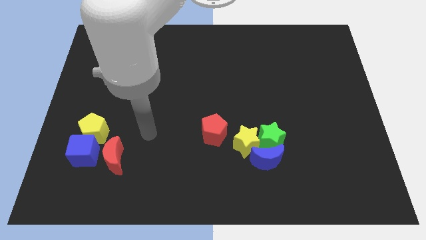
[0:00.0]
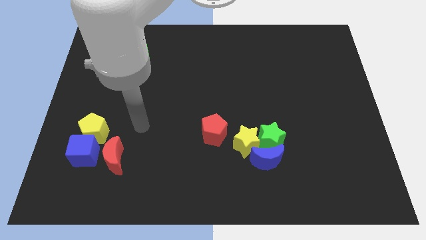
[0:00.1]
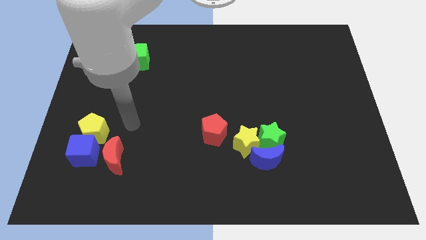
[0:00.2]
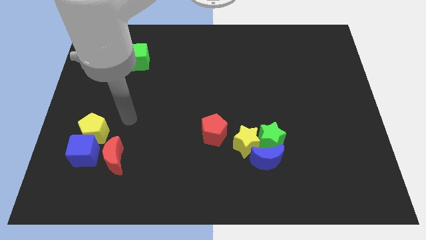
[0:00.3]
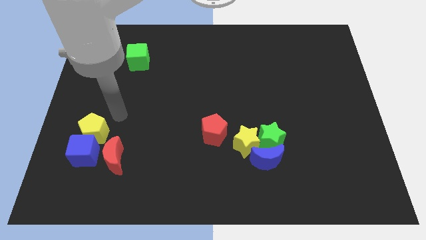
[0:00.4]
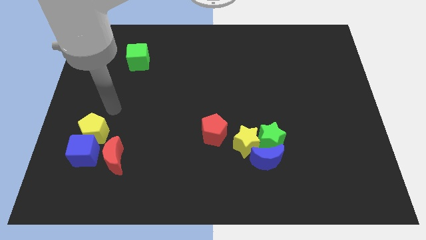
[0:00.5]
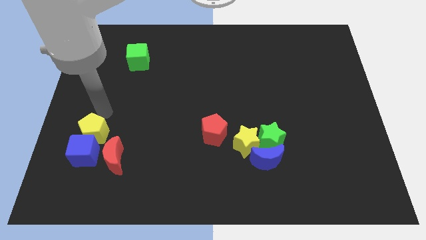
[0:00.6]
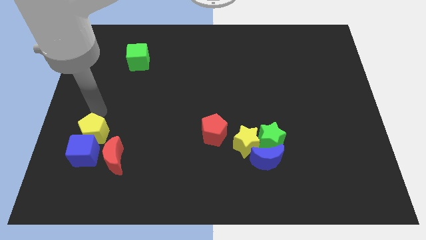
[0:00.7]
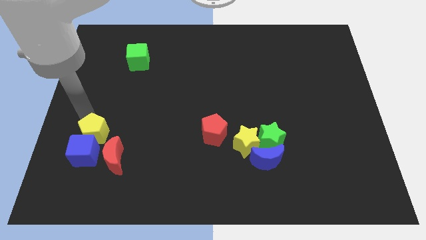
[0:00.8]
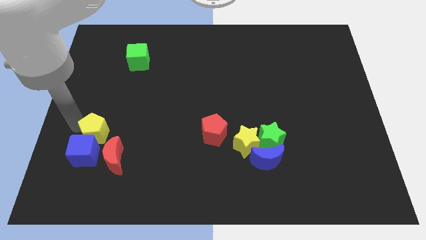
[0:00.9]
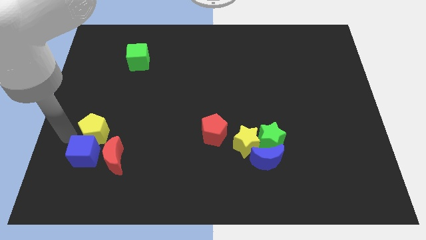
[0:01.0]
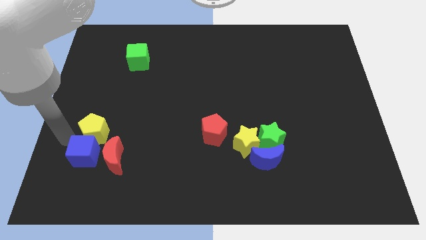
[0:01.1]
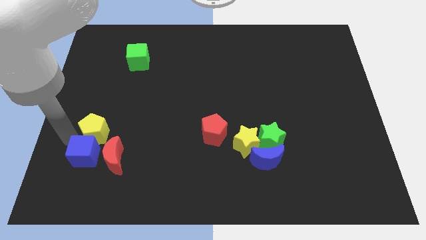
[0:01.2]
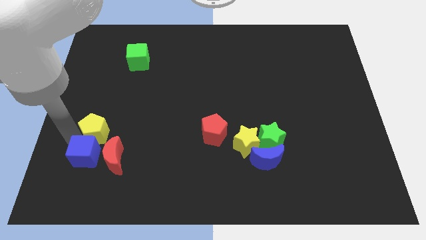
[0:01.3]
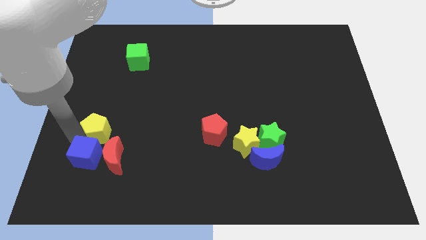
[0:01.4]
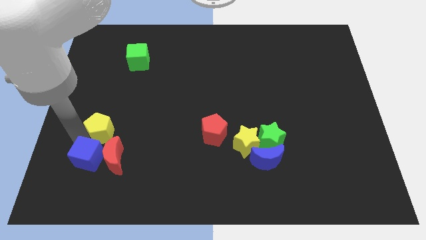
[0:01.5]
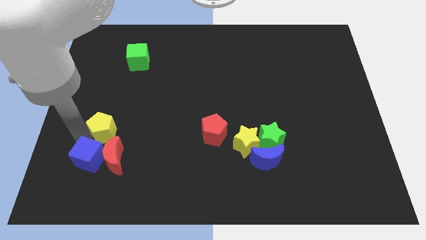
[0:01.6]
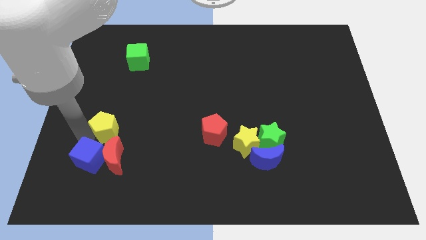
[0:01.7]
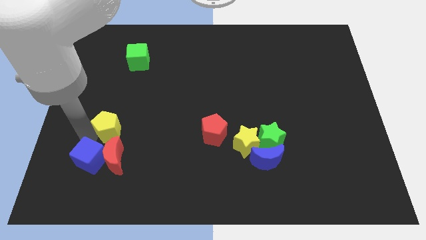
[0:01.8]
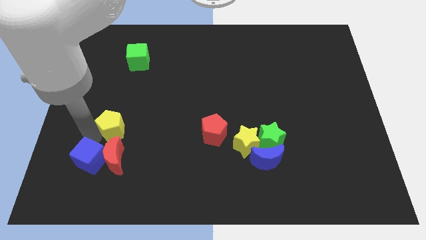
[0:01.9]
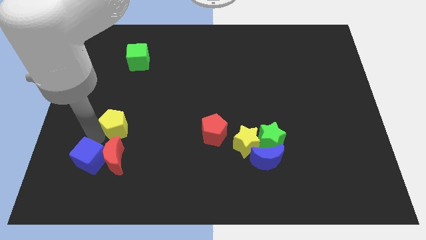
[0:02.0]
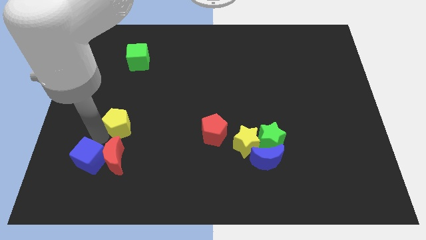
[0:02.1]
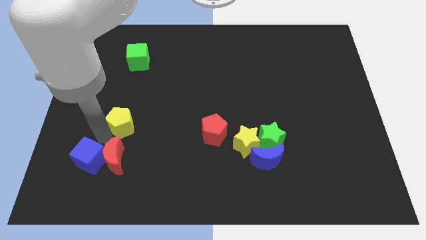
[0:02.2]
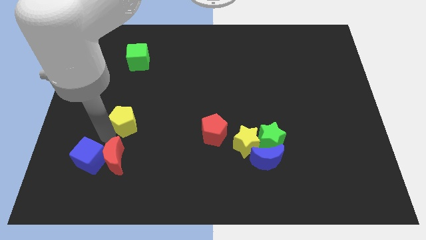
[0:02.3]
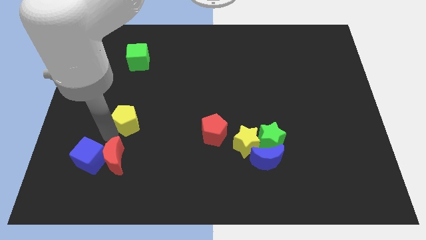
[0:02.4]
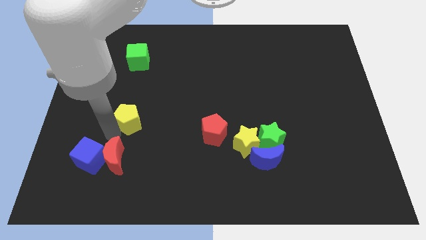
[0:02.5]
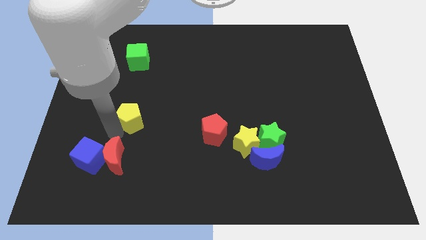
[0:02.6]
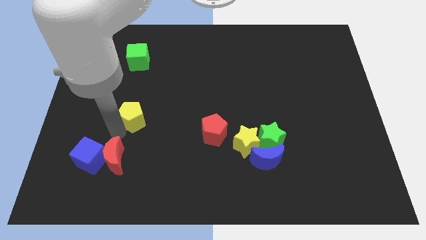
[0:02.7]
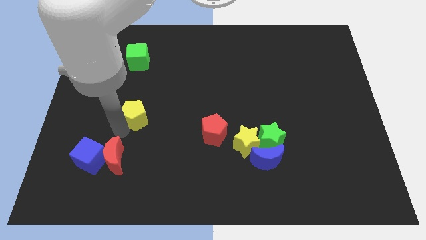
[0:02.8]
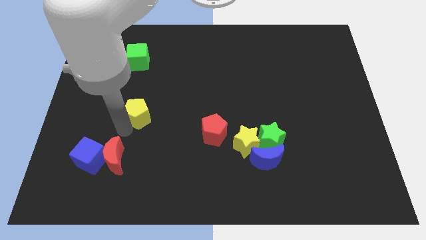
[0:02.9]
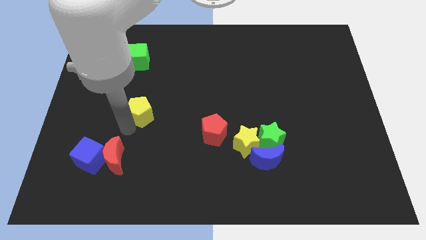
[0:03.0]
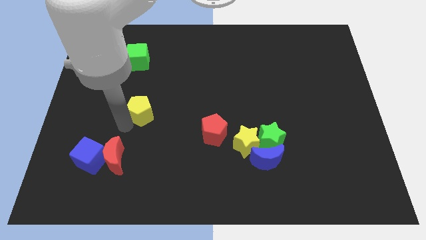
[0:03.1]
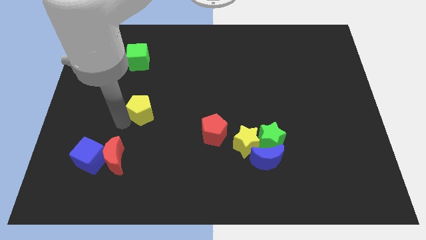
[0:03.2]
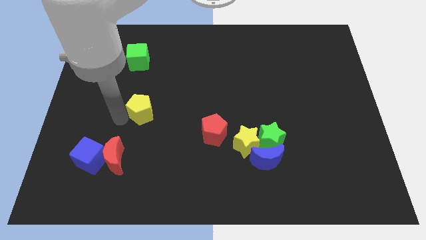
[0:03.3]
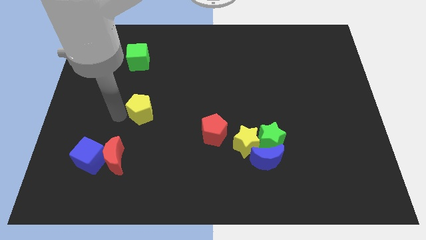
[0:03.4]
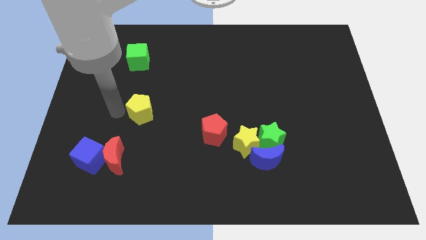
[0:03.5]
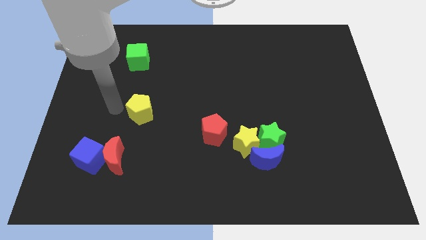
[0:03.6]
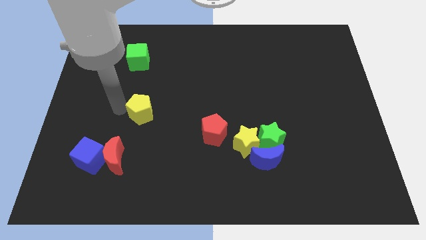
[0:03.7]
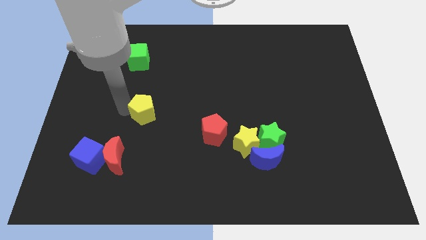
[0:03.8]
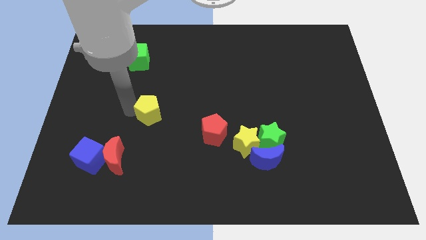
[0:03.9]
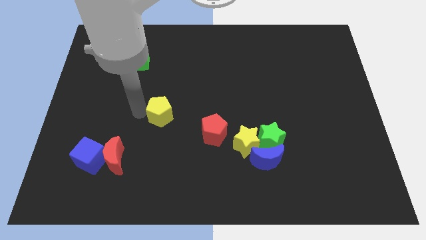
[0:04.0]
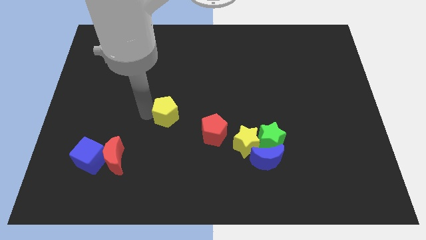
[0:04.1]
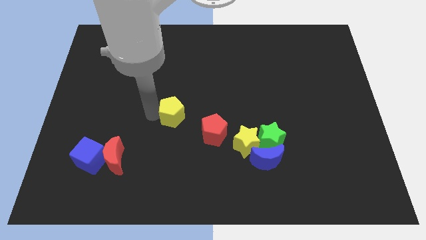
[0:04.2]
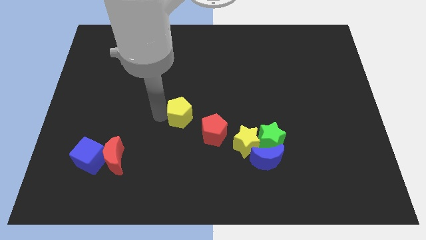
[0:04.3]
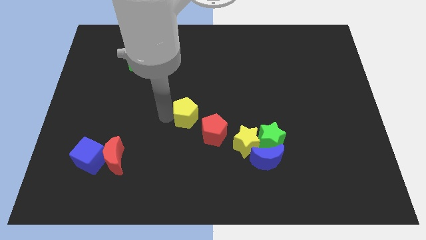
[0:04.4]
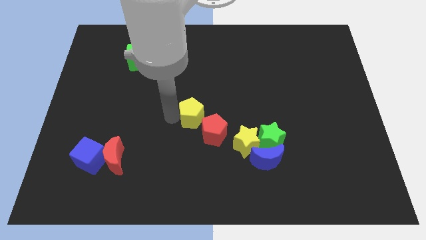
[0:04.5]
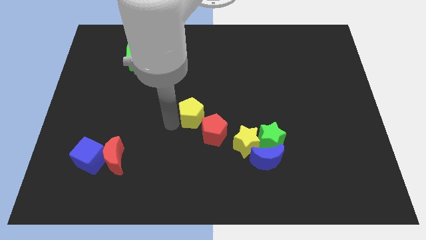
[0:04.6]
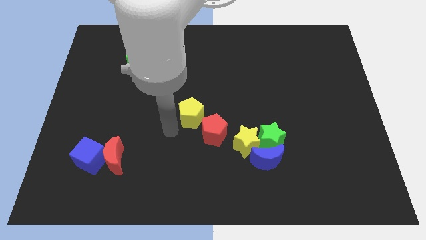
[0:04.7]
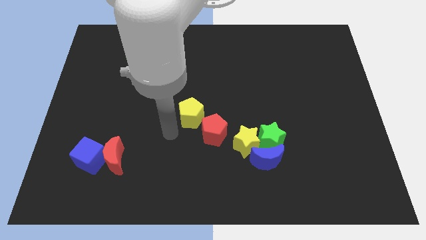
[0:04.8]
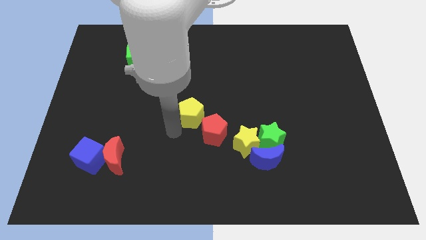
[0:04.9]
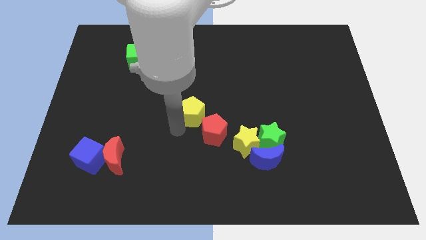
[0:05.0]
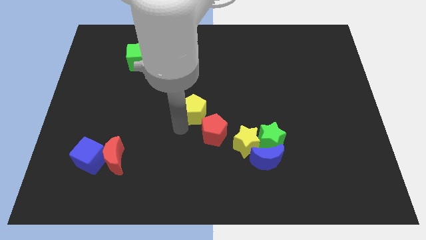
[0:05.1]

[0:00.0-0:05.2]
put the yellow pentagon above the red pentagon

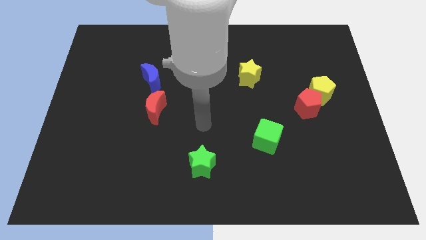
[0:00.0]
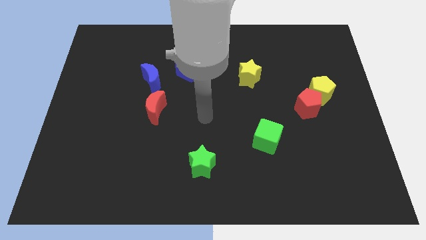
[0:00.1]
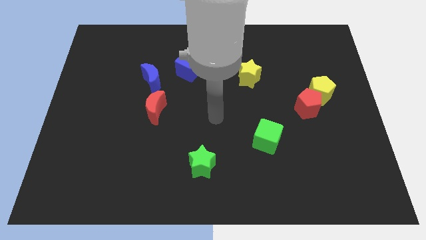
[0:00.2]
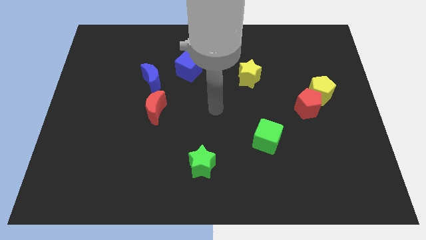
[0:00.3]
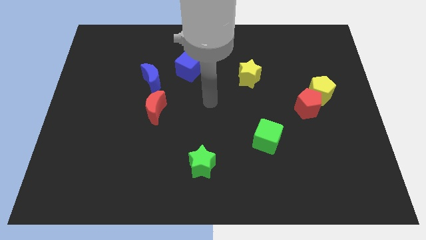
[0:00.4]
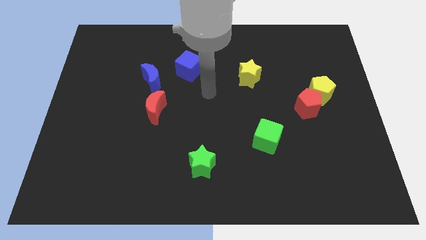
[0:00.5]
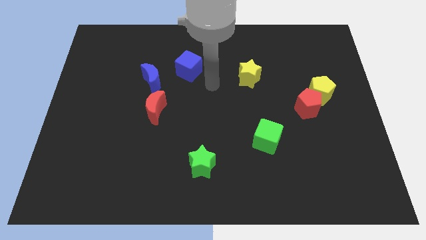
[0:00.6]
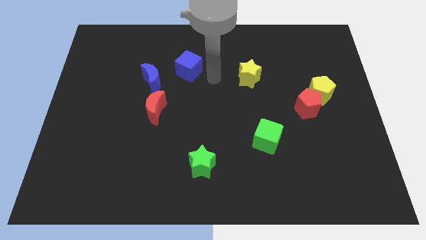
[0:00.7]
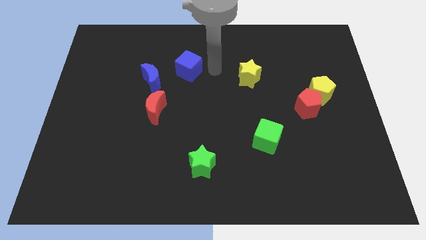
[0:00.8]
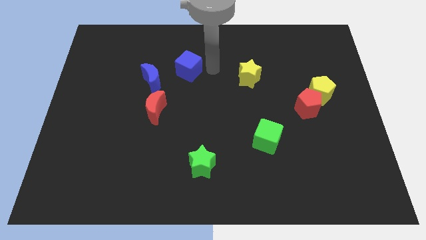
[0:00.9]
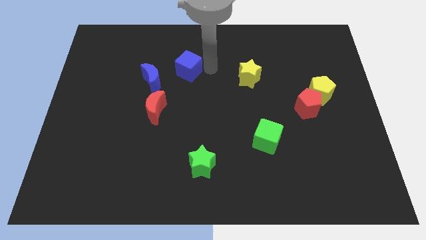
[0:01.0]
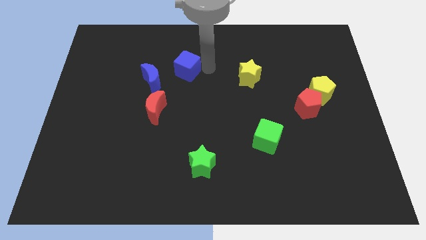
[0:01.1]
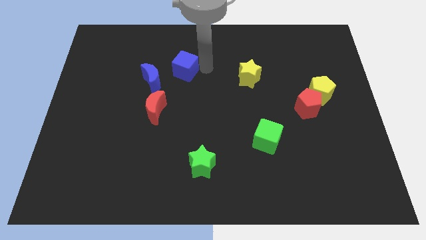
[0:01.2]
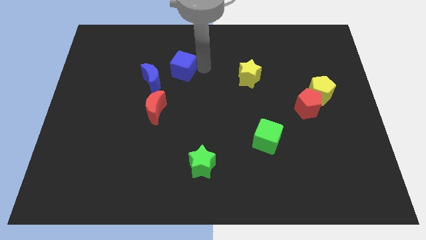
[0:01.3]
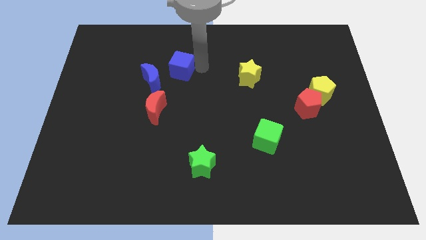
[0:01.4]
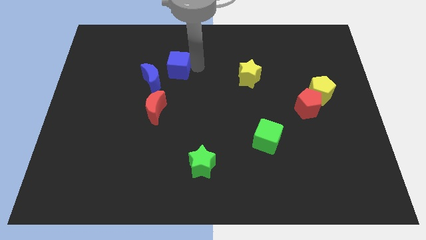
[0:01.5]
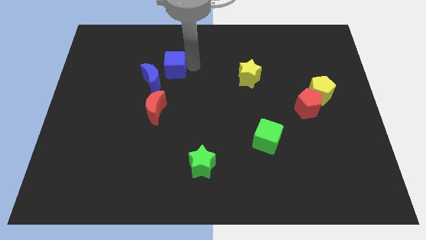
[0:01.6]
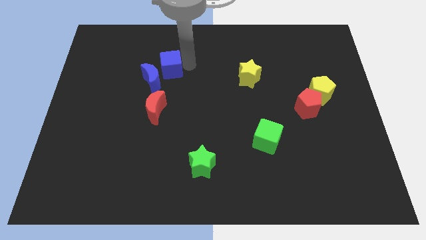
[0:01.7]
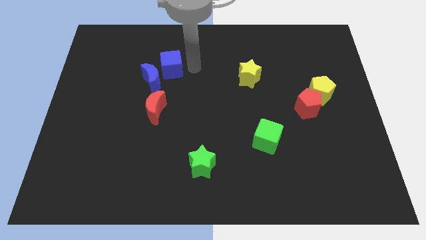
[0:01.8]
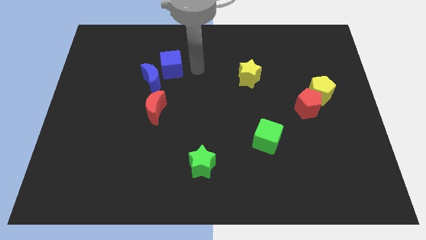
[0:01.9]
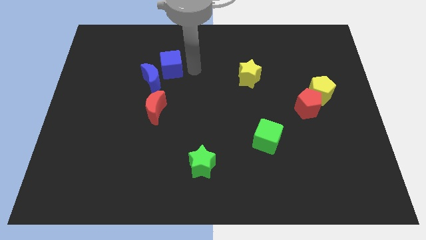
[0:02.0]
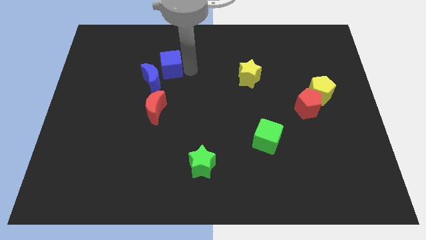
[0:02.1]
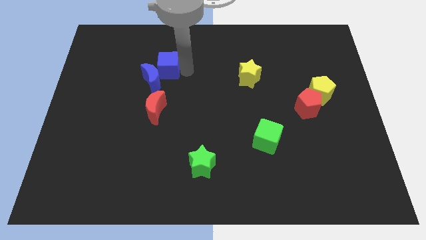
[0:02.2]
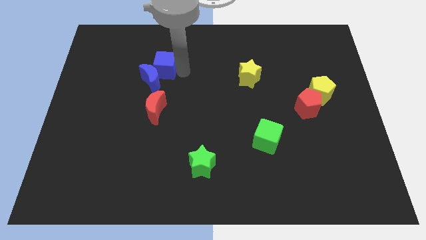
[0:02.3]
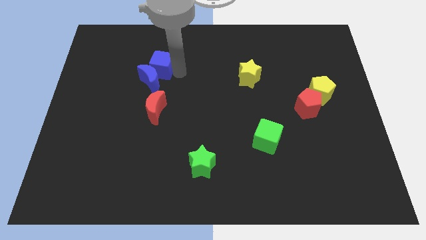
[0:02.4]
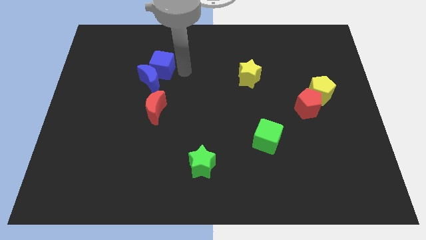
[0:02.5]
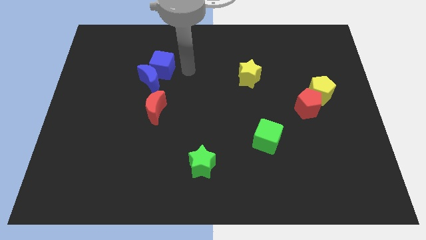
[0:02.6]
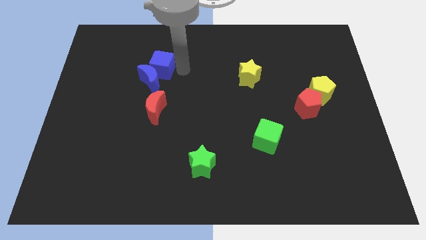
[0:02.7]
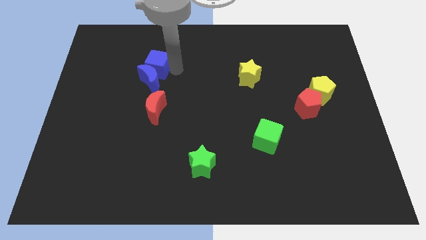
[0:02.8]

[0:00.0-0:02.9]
push the blue cube diagonally up and to the left of the blue moon

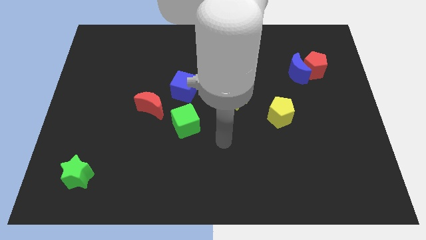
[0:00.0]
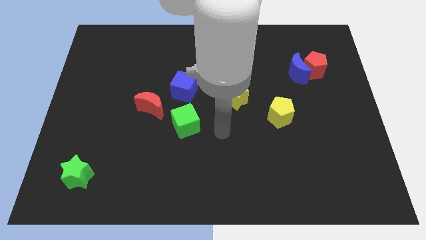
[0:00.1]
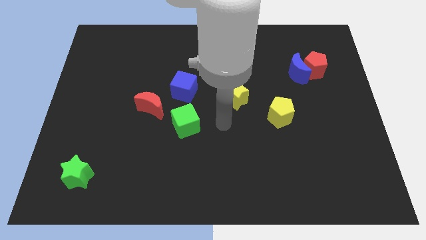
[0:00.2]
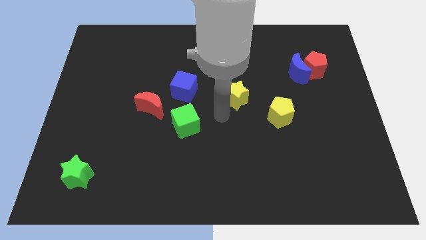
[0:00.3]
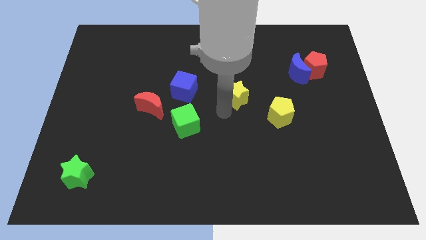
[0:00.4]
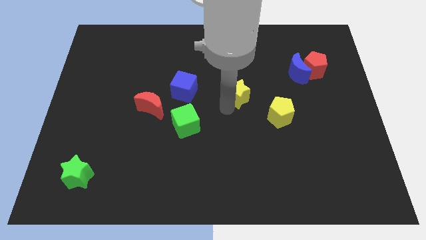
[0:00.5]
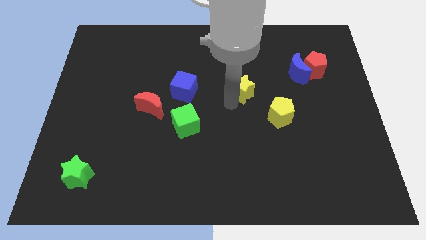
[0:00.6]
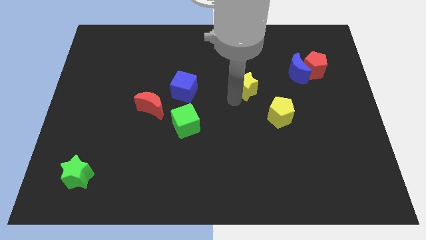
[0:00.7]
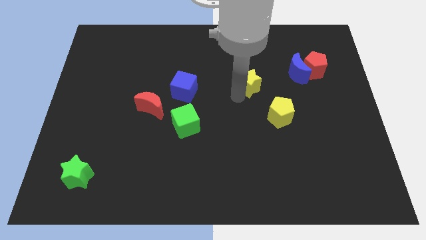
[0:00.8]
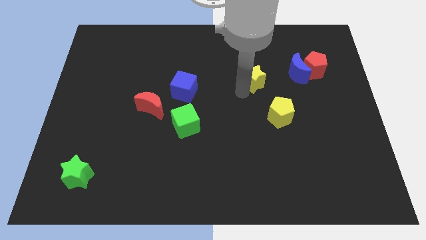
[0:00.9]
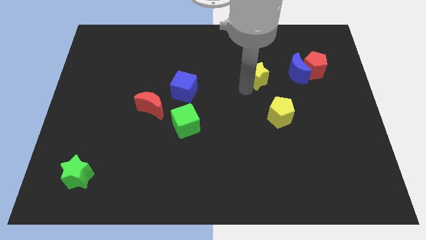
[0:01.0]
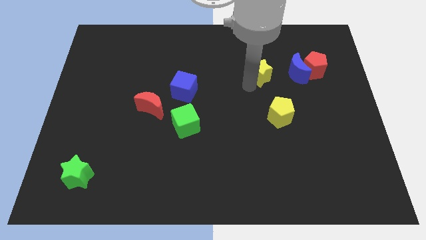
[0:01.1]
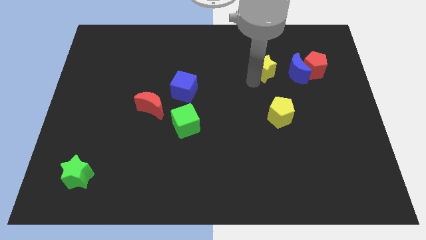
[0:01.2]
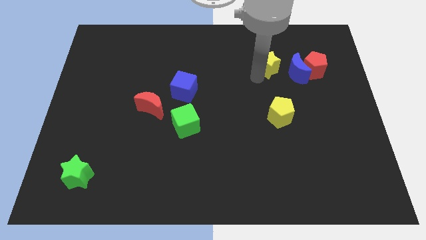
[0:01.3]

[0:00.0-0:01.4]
put the yellow star to the top left side of the blue moon
